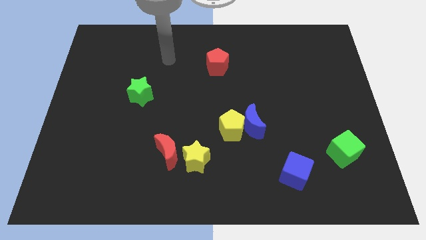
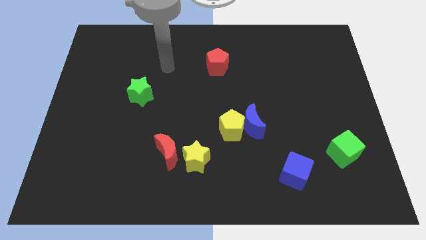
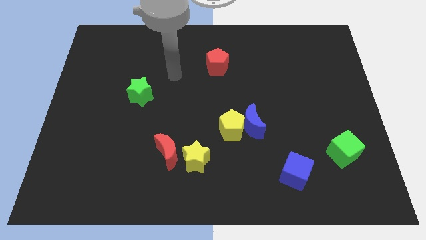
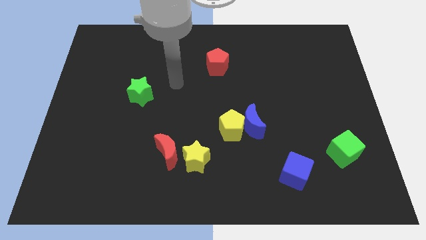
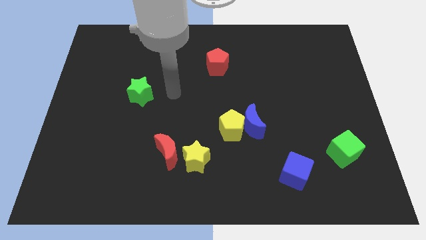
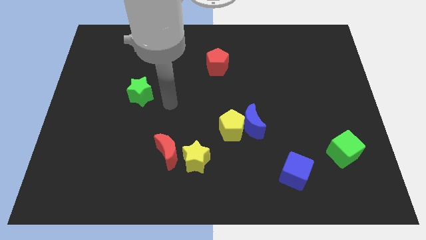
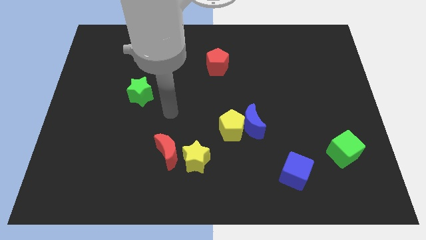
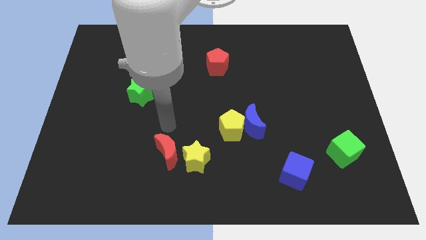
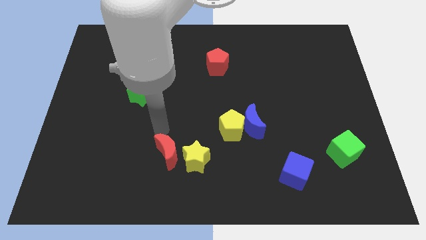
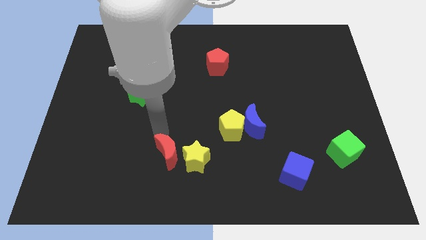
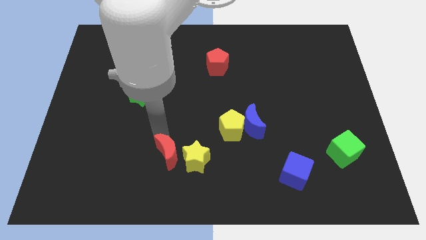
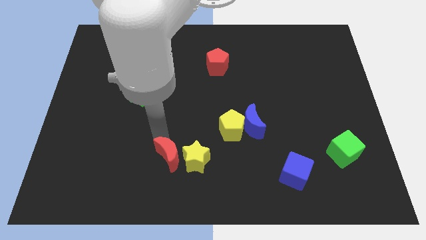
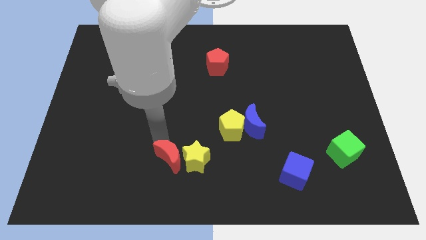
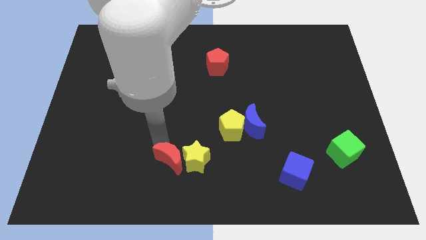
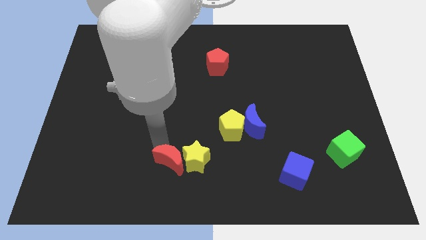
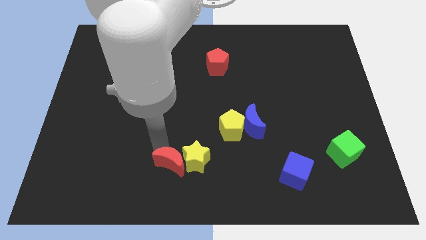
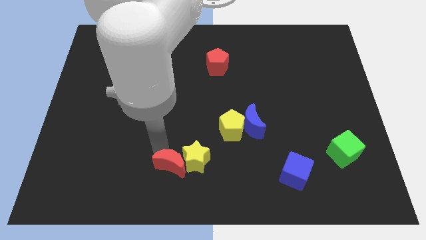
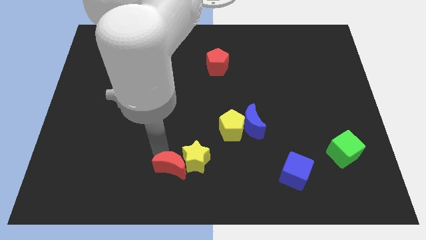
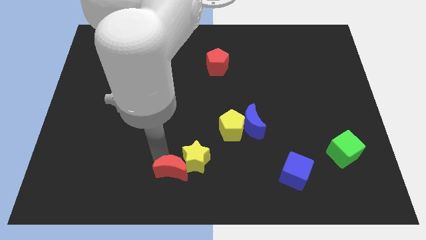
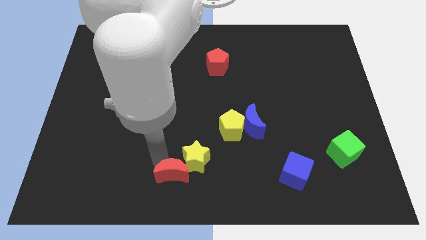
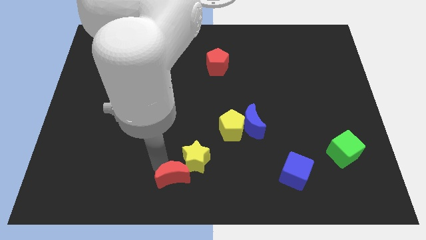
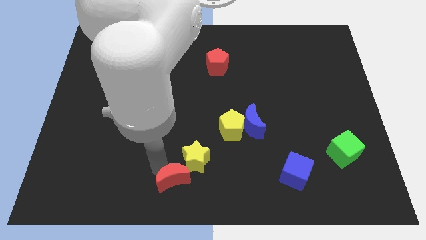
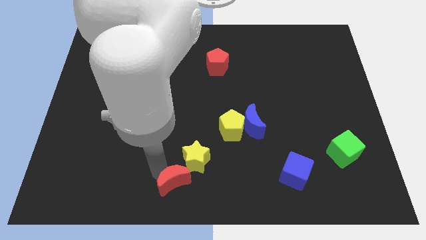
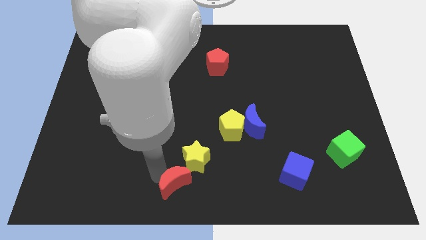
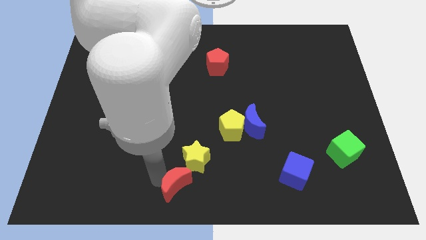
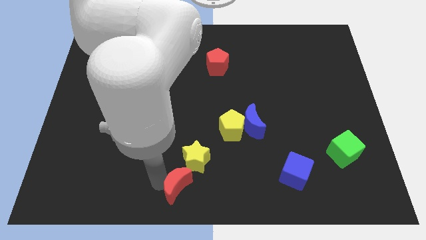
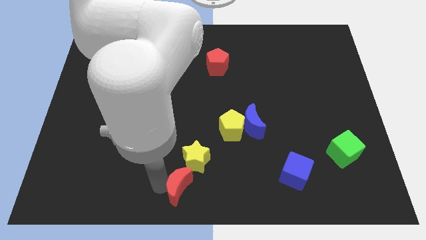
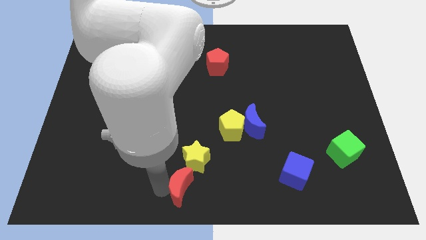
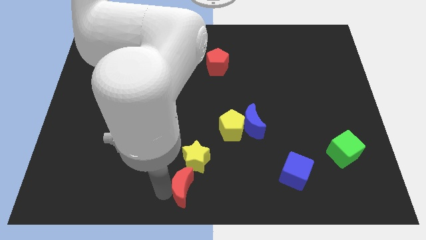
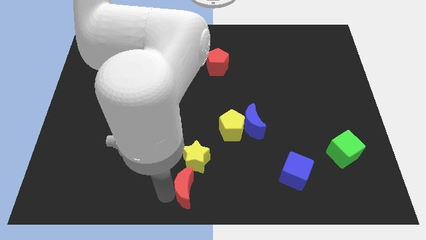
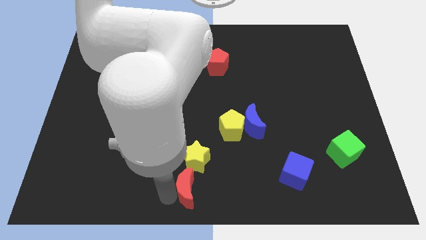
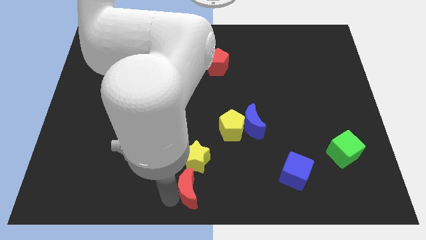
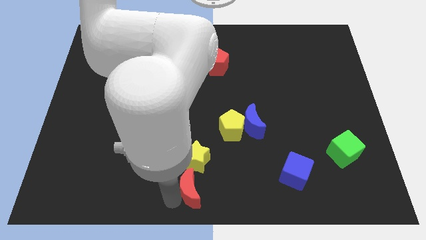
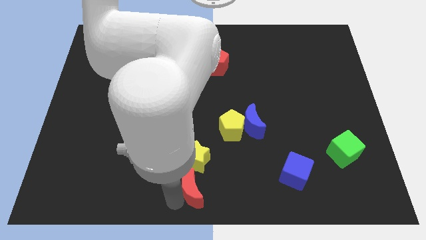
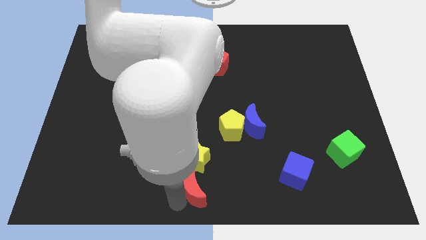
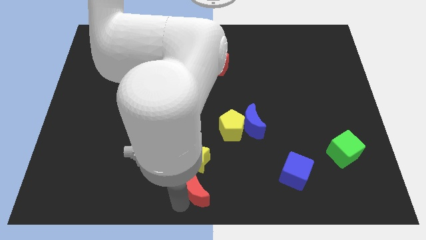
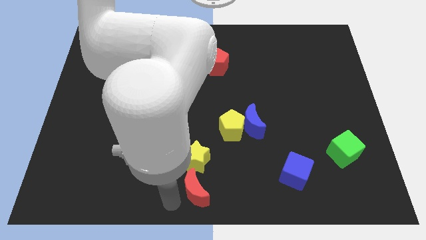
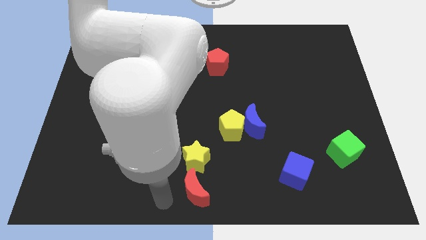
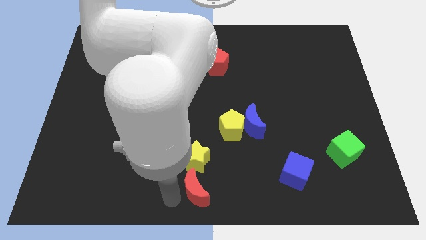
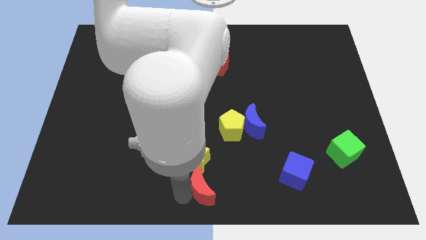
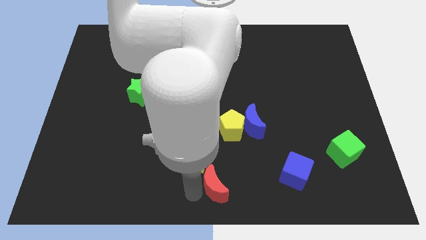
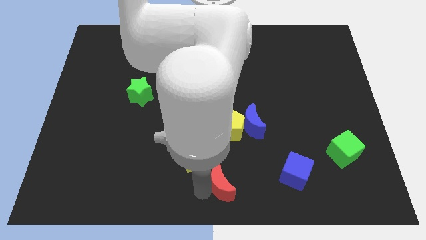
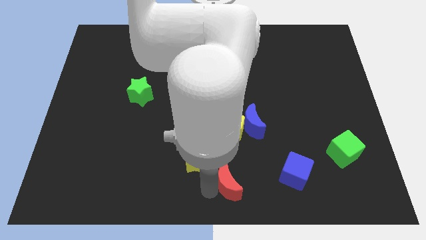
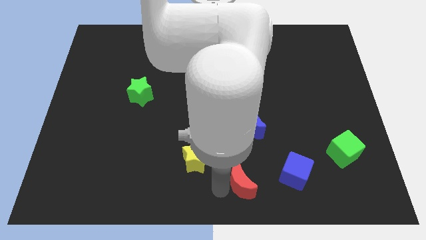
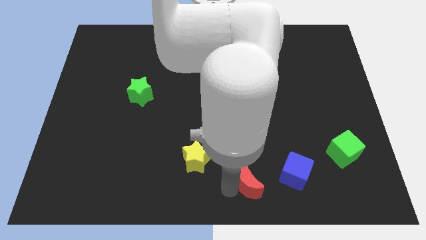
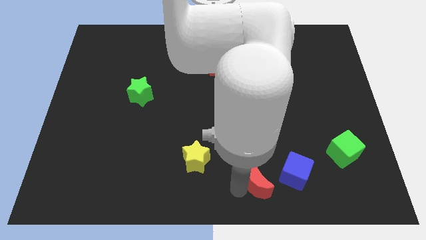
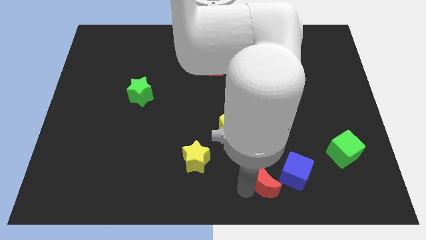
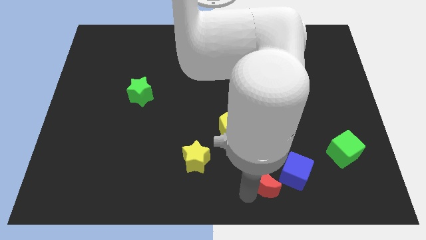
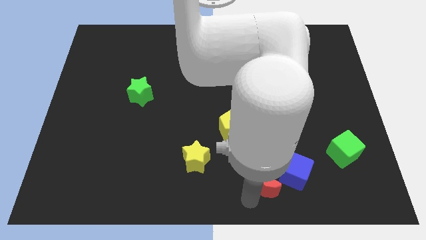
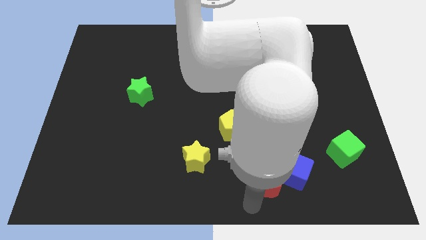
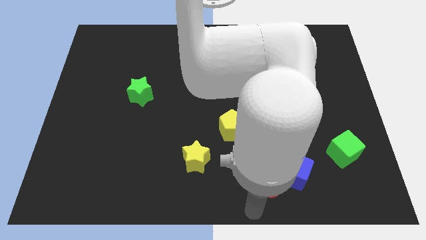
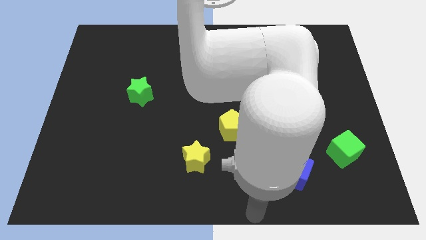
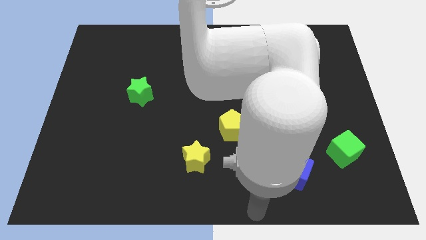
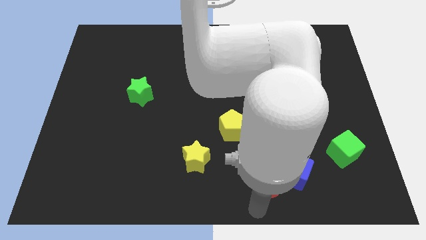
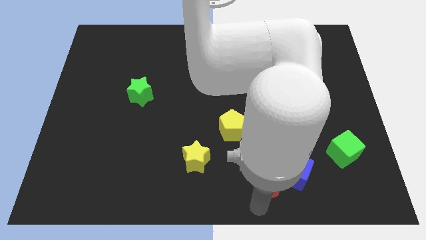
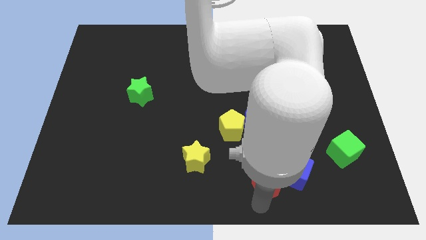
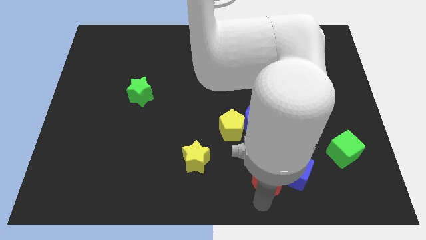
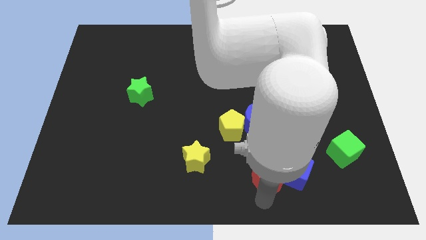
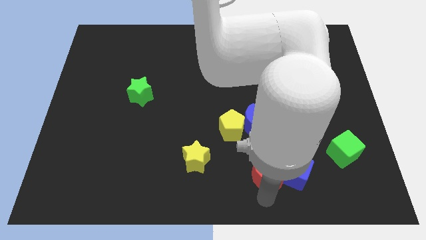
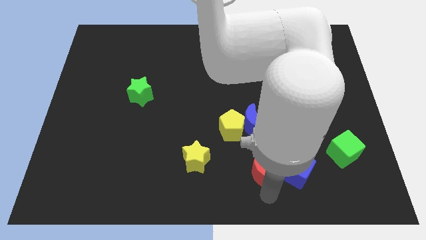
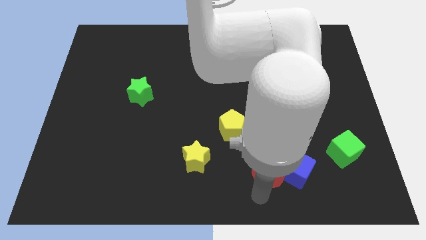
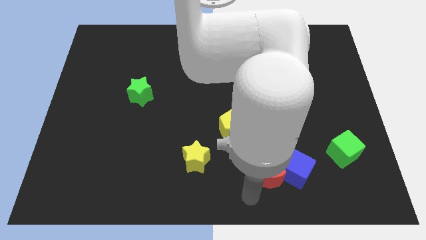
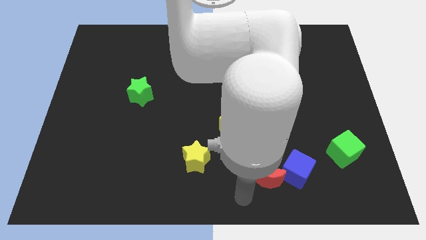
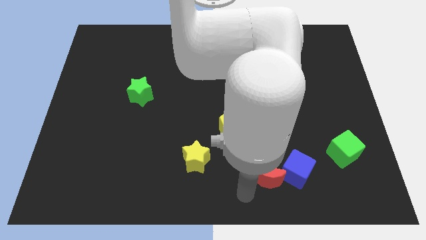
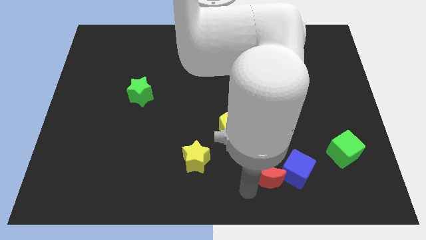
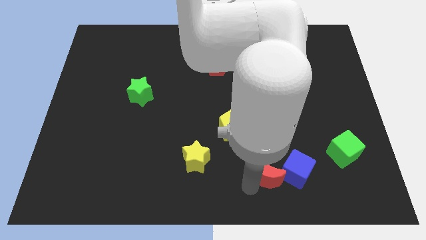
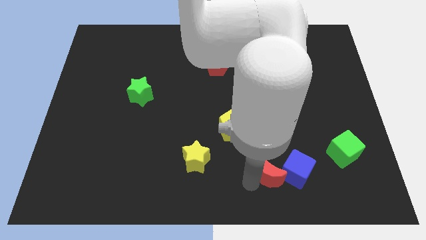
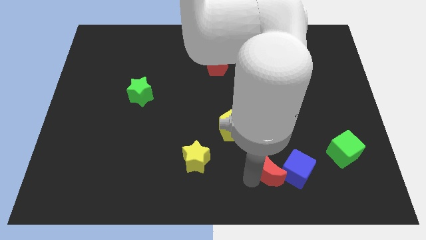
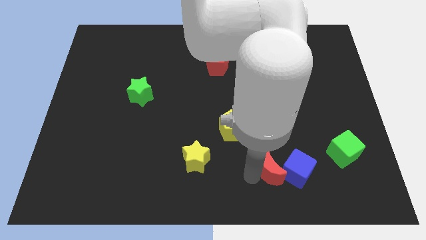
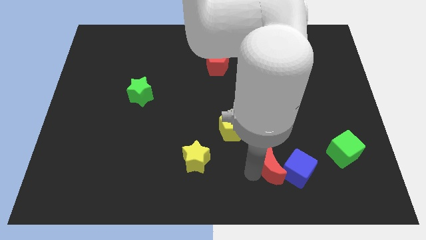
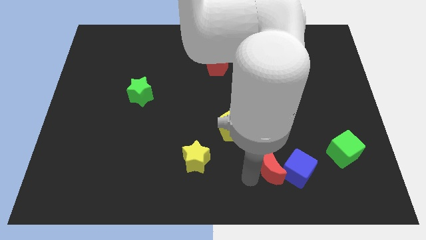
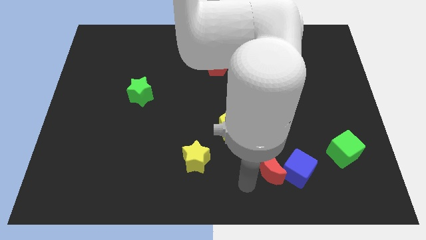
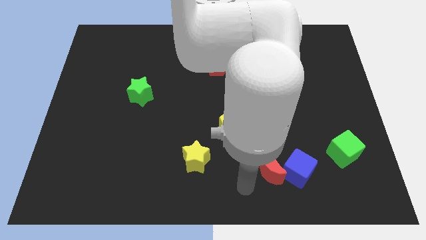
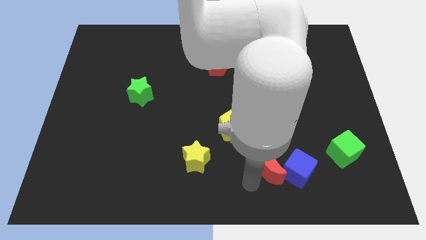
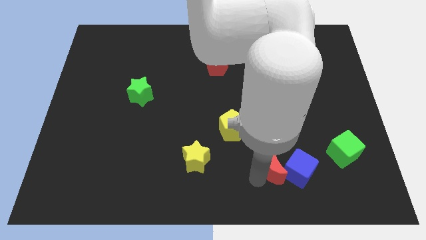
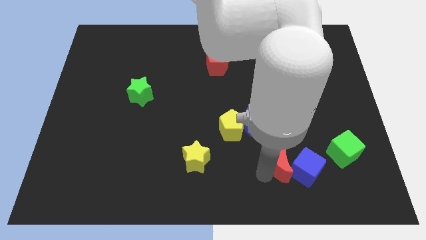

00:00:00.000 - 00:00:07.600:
put the red moon to the left of the green cube
